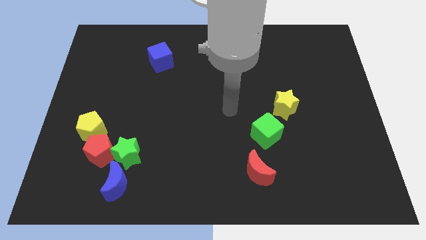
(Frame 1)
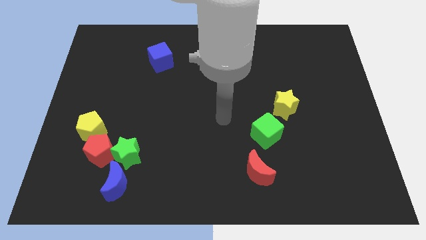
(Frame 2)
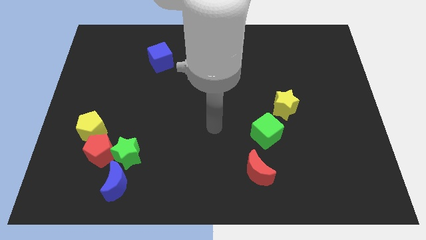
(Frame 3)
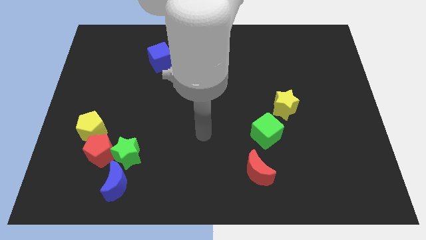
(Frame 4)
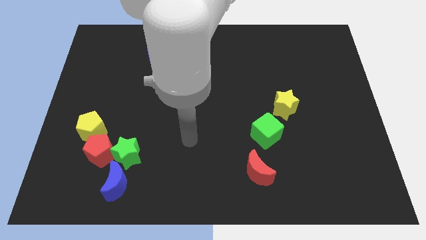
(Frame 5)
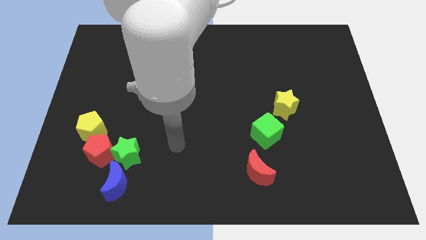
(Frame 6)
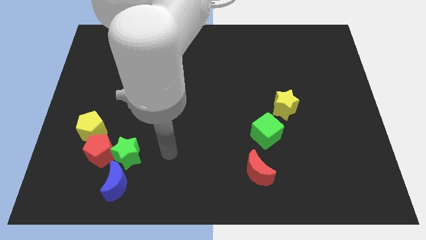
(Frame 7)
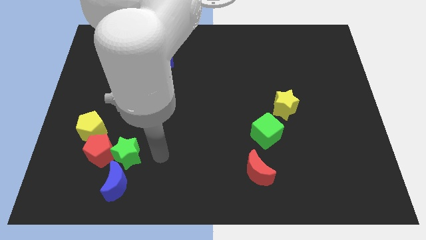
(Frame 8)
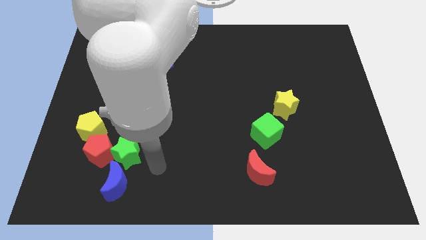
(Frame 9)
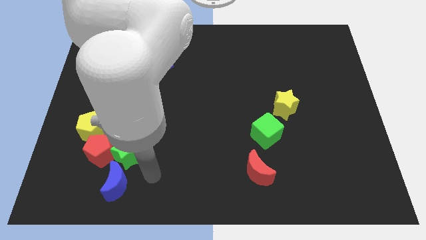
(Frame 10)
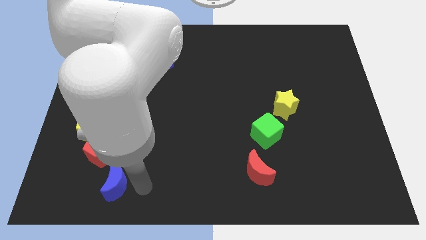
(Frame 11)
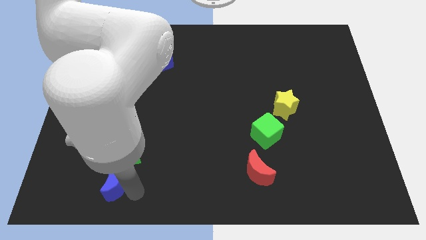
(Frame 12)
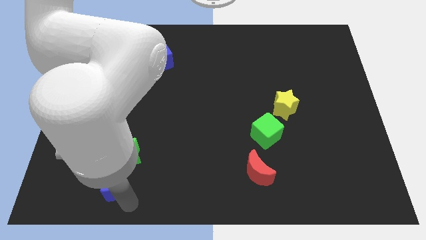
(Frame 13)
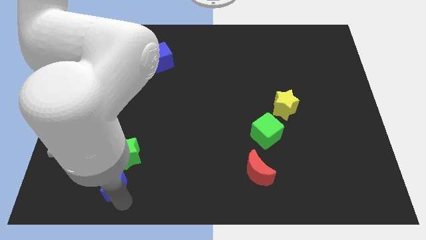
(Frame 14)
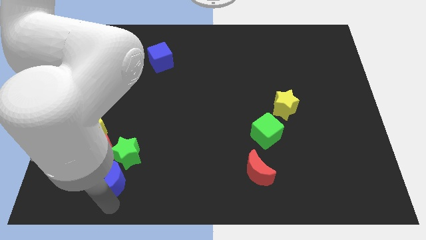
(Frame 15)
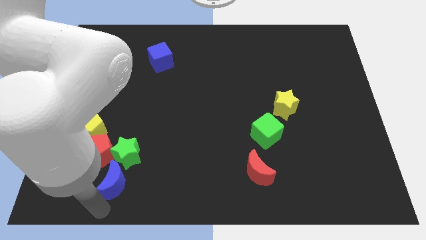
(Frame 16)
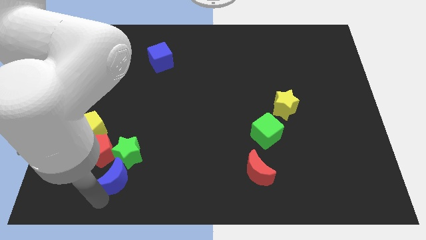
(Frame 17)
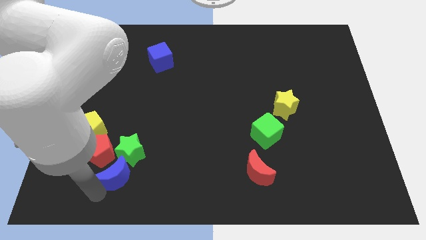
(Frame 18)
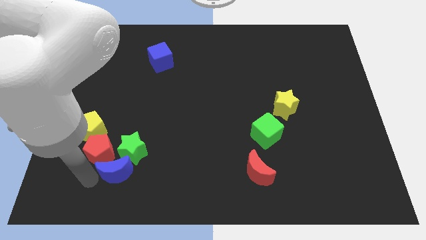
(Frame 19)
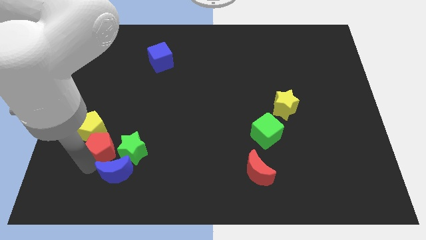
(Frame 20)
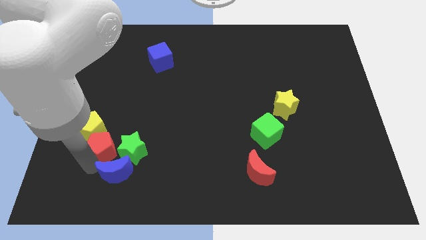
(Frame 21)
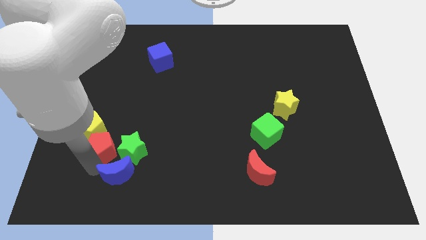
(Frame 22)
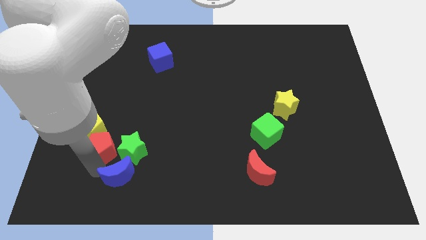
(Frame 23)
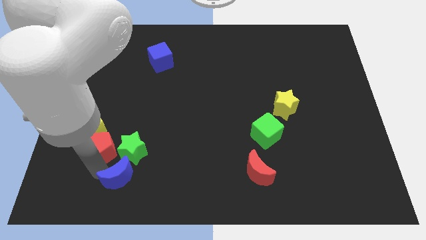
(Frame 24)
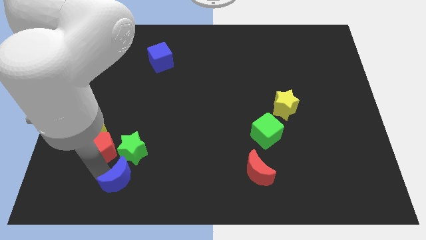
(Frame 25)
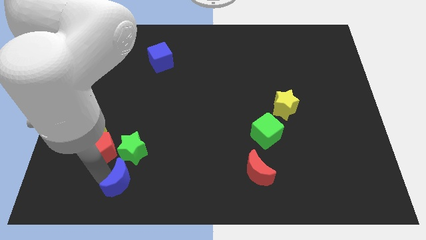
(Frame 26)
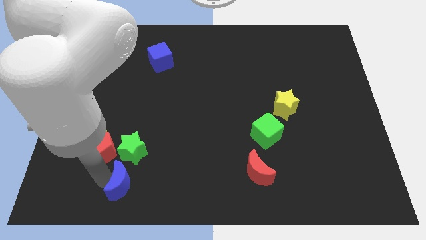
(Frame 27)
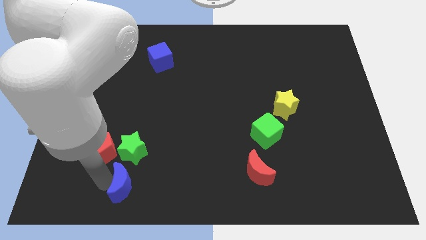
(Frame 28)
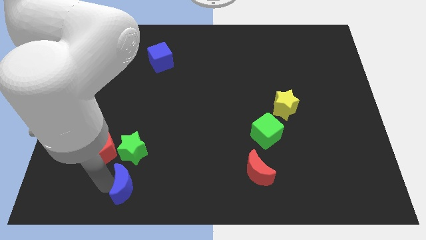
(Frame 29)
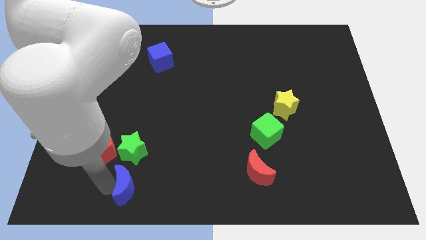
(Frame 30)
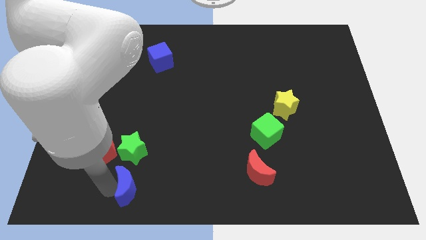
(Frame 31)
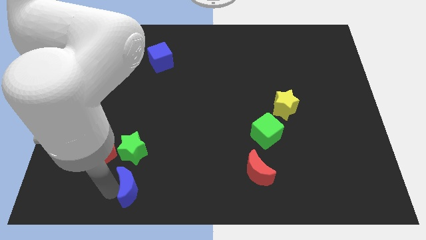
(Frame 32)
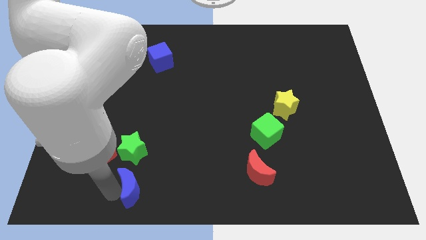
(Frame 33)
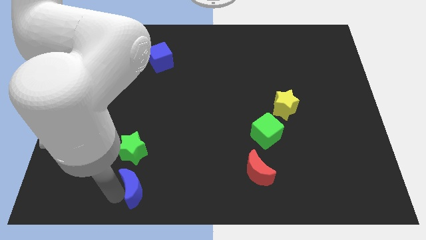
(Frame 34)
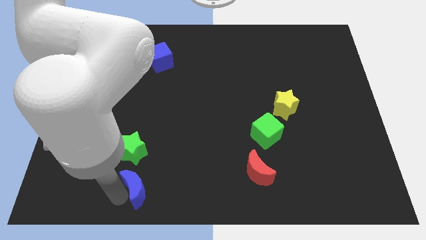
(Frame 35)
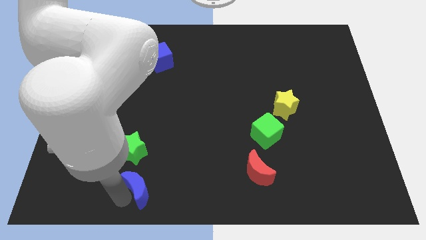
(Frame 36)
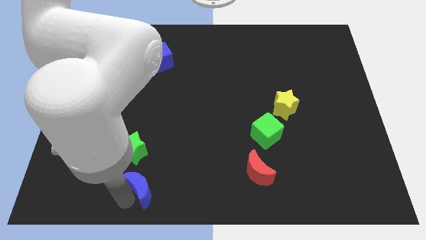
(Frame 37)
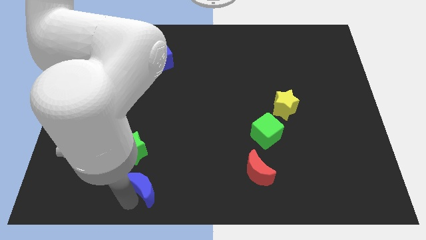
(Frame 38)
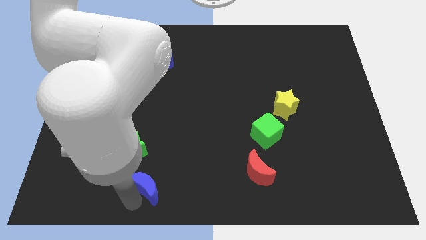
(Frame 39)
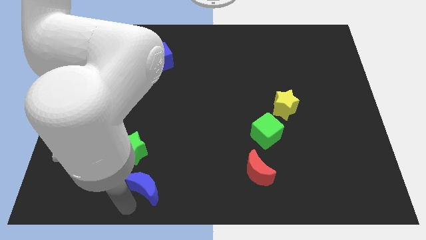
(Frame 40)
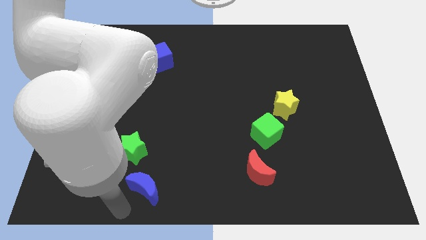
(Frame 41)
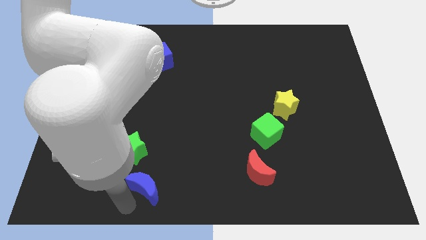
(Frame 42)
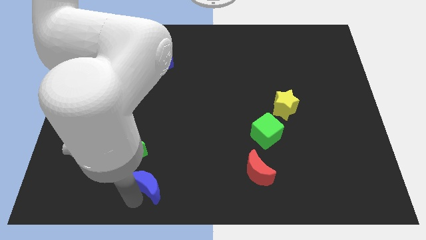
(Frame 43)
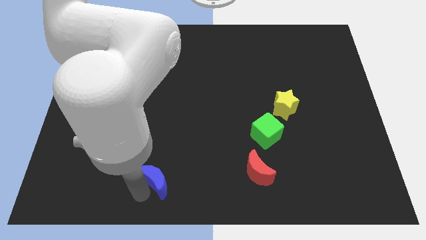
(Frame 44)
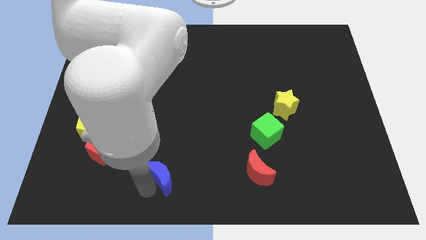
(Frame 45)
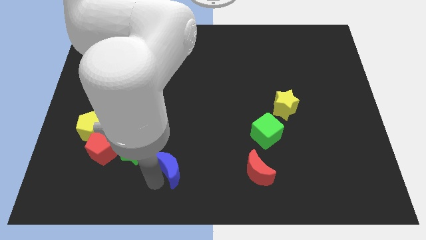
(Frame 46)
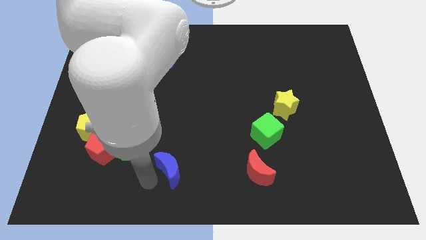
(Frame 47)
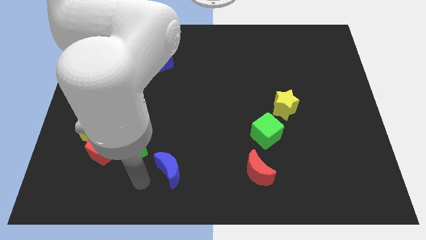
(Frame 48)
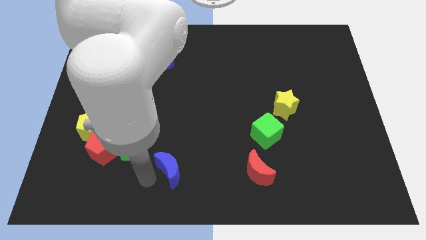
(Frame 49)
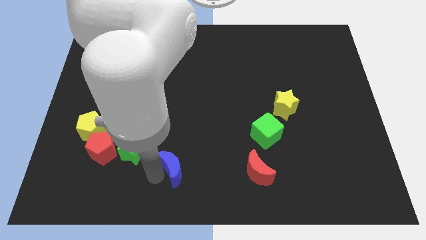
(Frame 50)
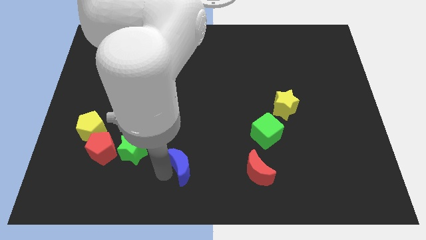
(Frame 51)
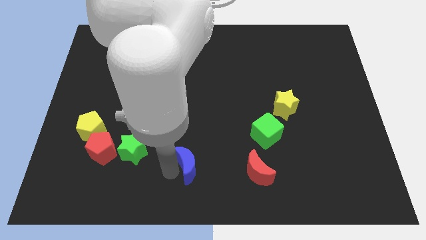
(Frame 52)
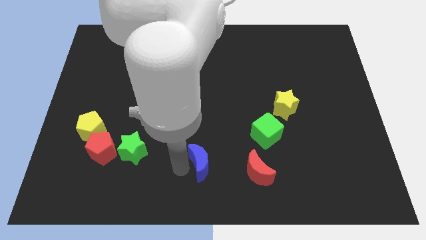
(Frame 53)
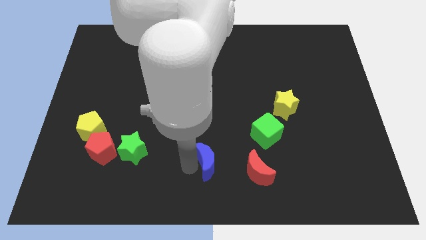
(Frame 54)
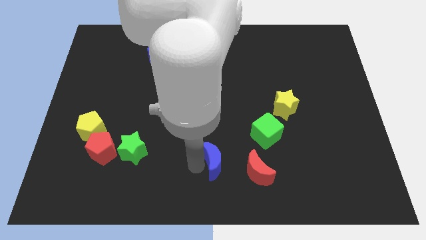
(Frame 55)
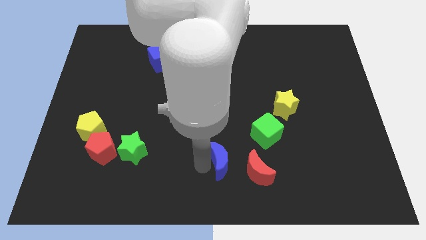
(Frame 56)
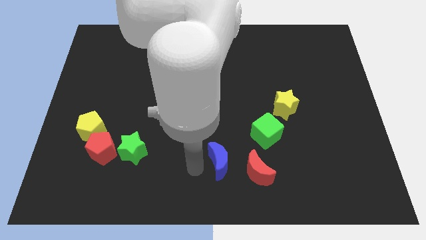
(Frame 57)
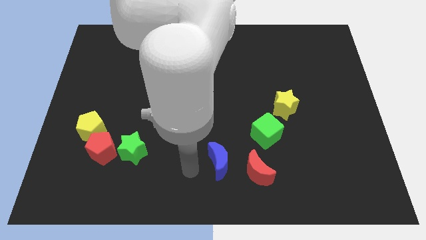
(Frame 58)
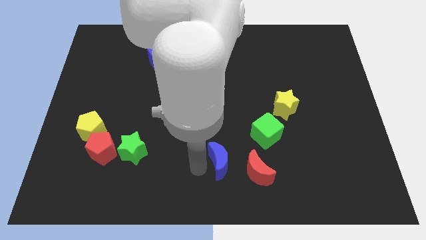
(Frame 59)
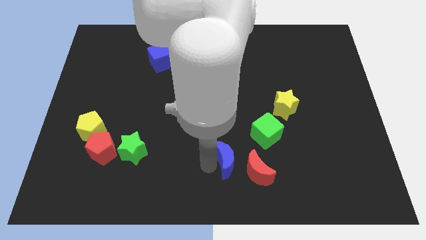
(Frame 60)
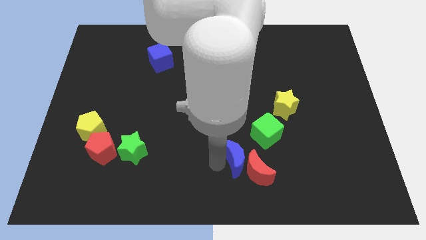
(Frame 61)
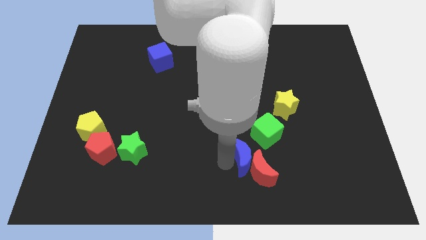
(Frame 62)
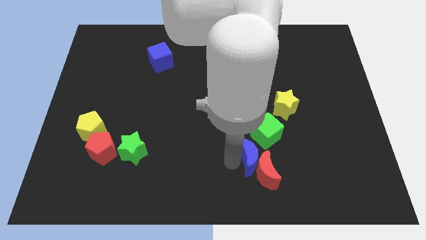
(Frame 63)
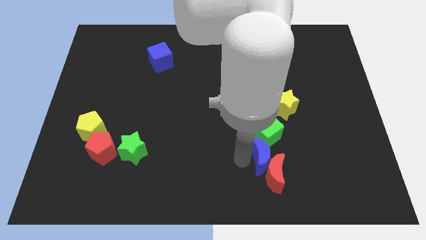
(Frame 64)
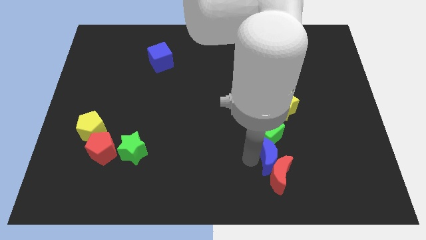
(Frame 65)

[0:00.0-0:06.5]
put the blue moon to the top right of the red moon

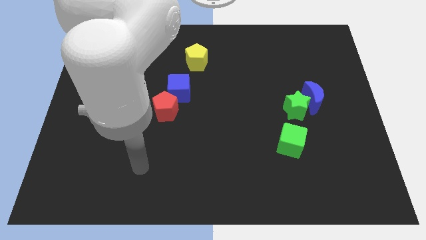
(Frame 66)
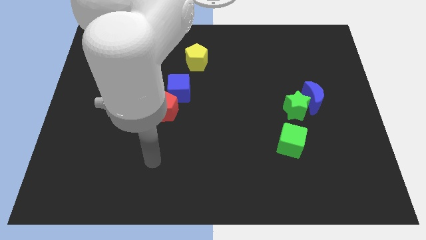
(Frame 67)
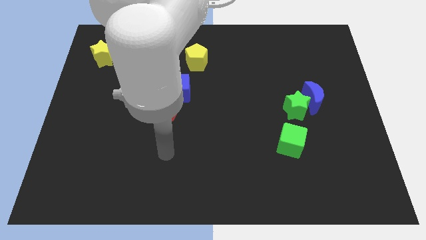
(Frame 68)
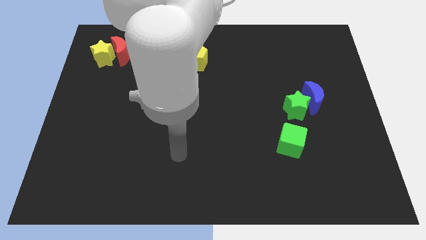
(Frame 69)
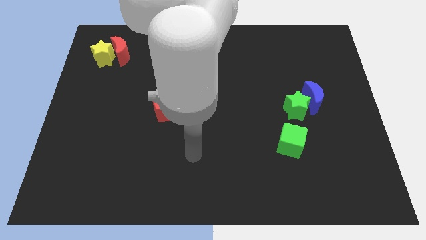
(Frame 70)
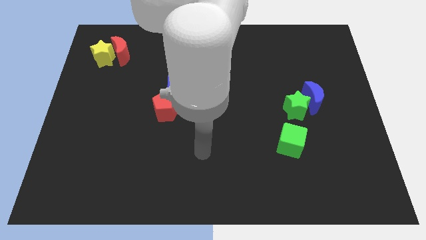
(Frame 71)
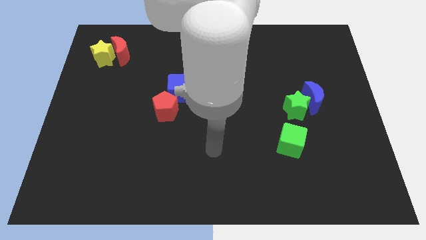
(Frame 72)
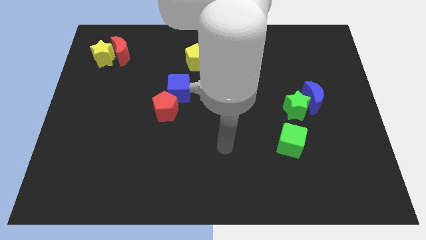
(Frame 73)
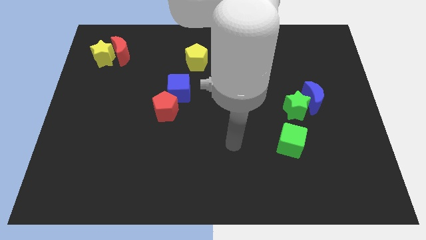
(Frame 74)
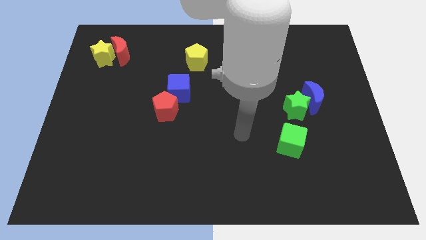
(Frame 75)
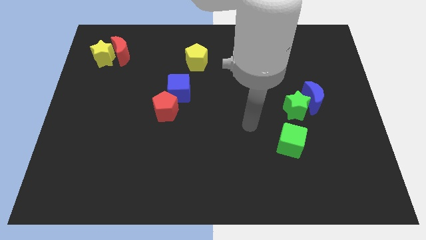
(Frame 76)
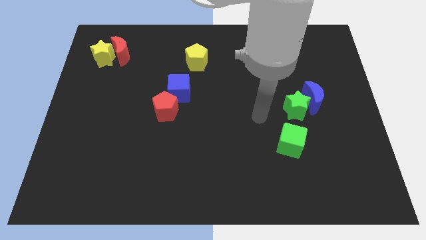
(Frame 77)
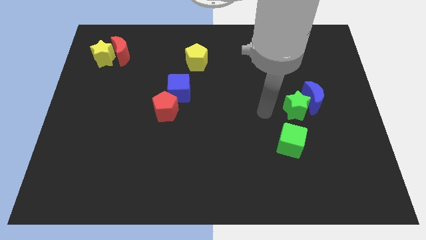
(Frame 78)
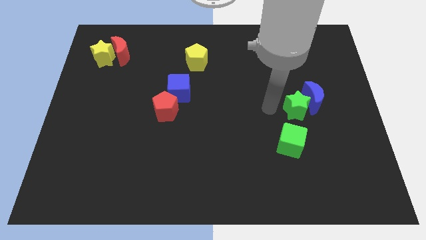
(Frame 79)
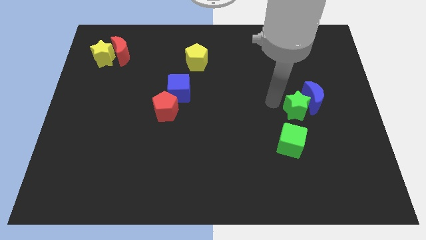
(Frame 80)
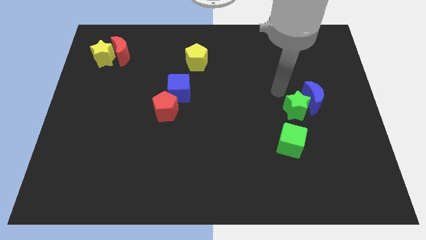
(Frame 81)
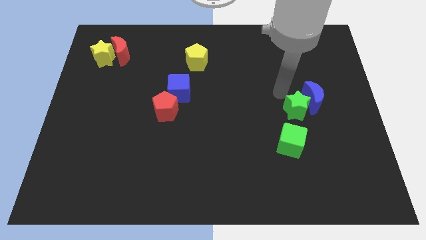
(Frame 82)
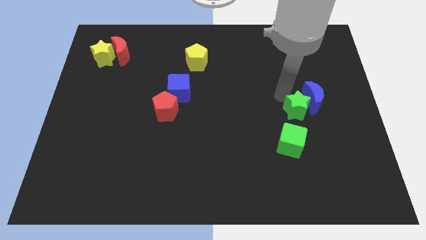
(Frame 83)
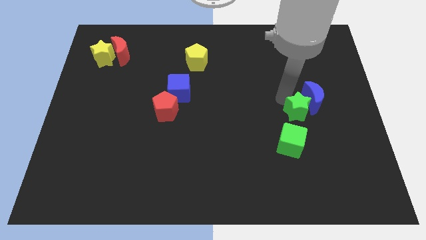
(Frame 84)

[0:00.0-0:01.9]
put the green star to the bottom side of the blue moon
